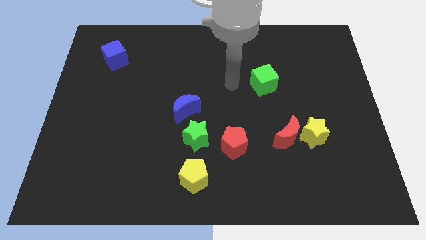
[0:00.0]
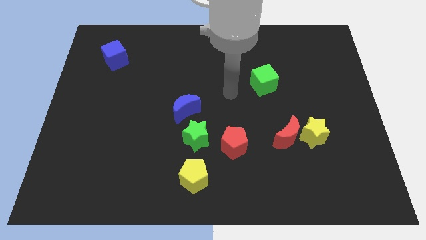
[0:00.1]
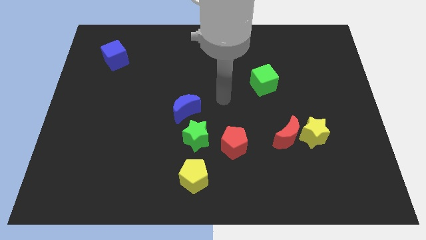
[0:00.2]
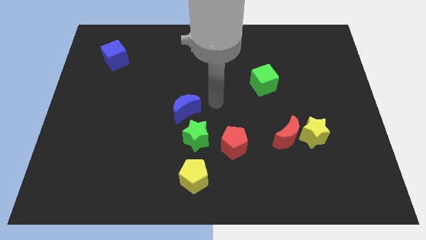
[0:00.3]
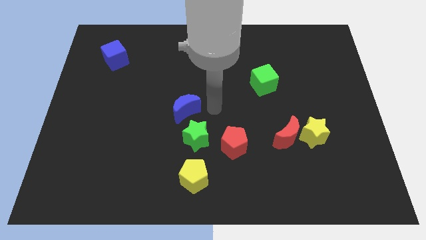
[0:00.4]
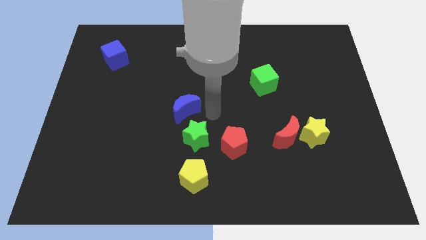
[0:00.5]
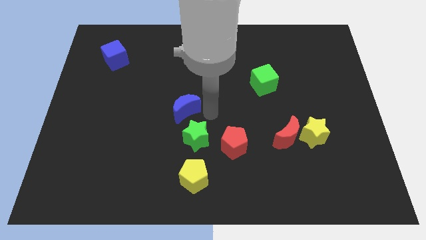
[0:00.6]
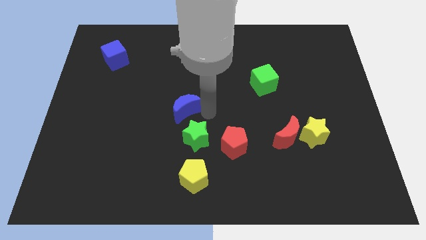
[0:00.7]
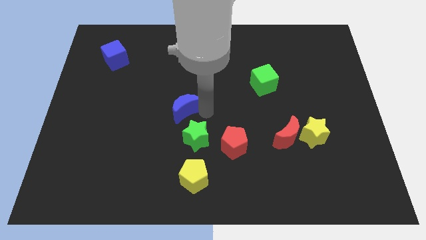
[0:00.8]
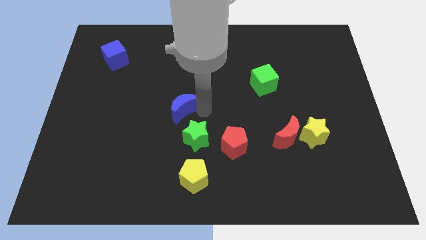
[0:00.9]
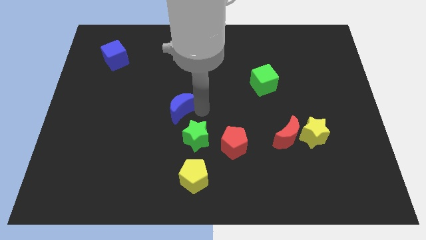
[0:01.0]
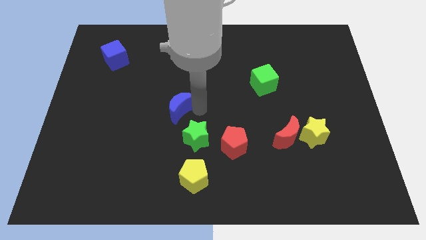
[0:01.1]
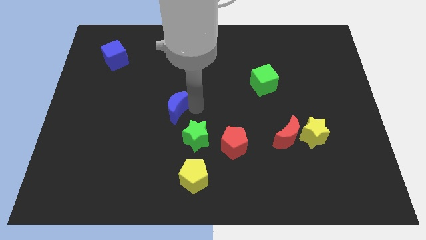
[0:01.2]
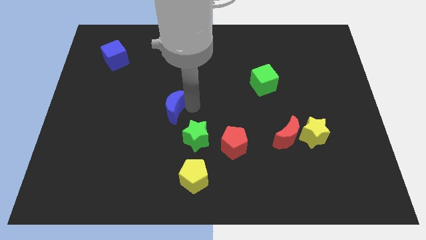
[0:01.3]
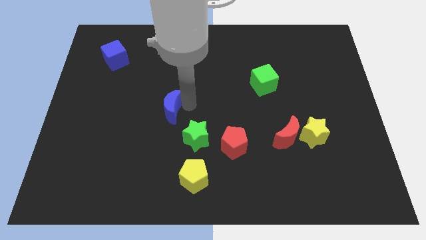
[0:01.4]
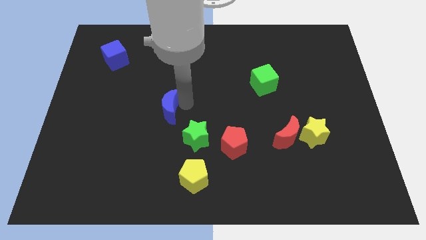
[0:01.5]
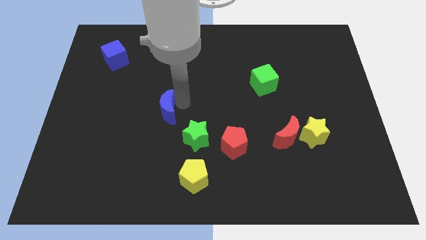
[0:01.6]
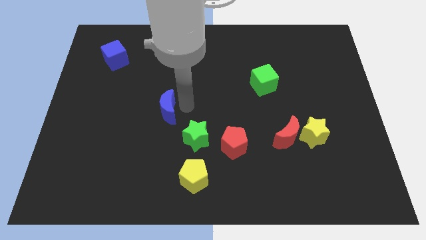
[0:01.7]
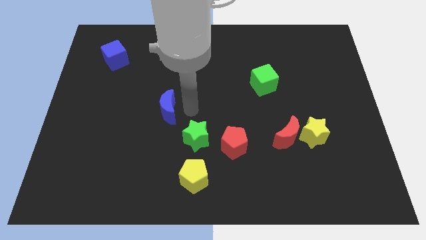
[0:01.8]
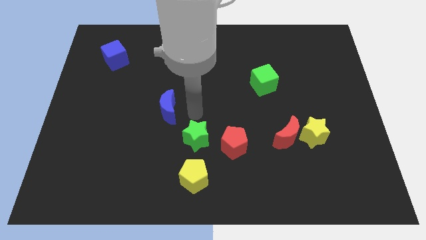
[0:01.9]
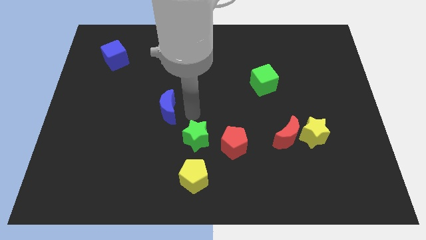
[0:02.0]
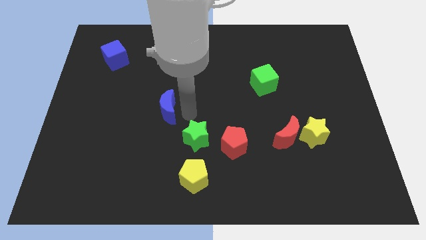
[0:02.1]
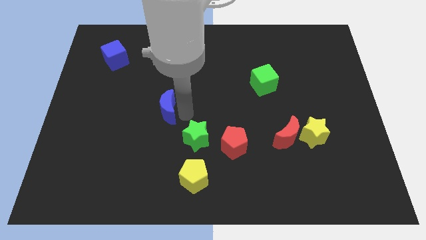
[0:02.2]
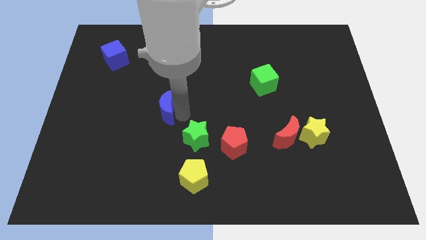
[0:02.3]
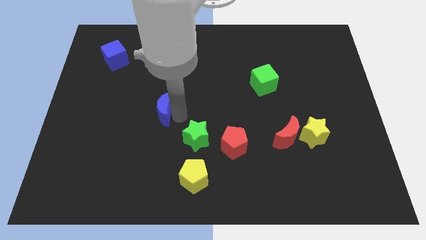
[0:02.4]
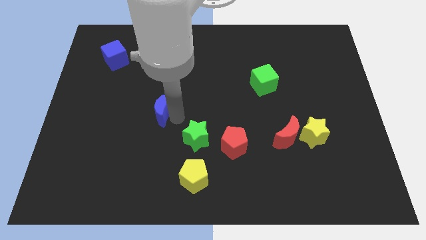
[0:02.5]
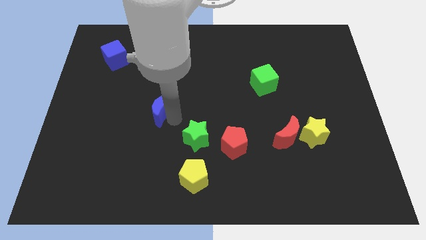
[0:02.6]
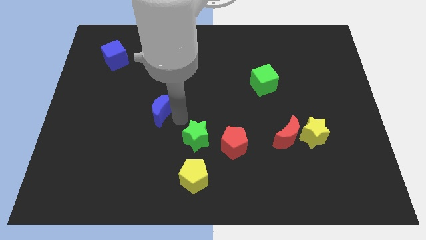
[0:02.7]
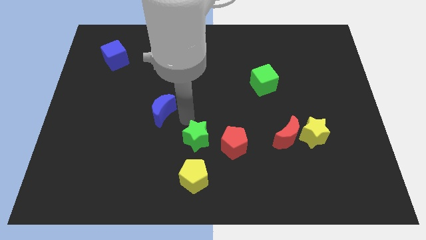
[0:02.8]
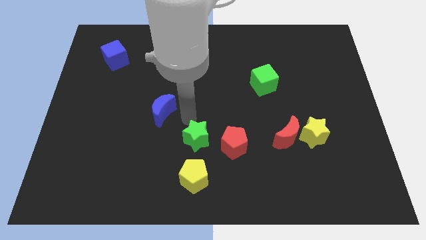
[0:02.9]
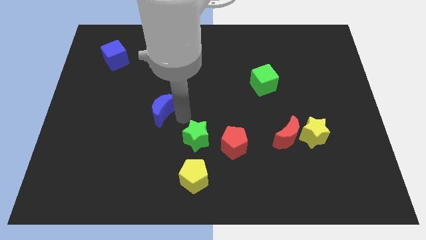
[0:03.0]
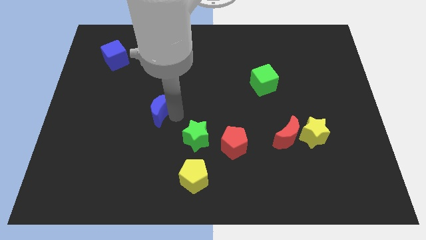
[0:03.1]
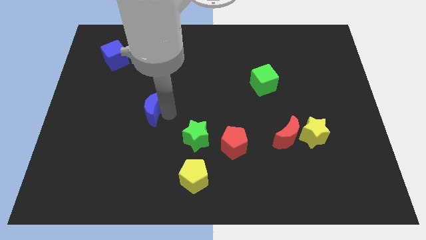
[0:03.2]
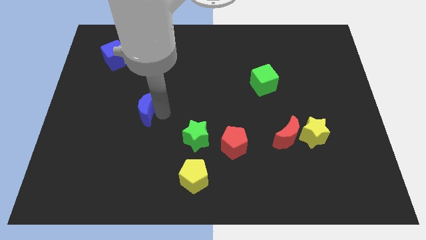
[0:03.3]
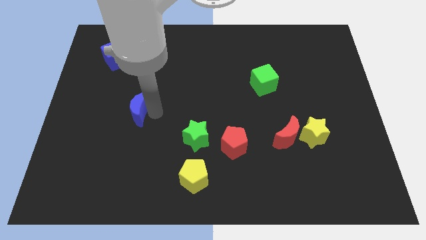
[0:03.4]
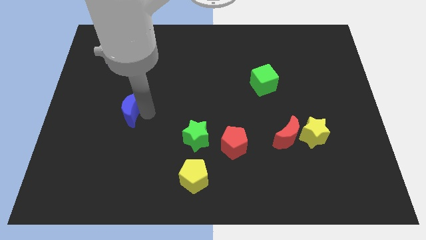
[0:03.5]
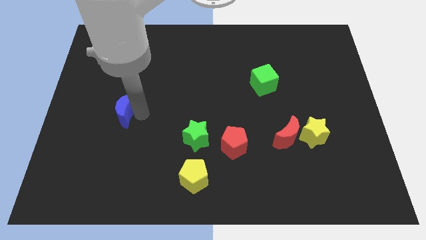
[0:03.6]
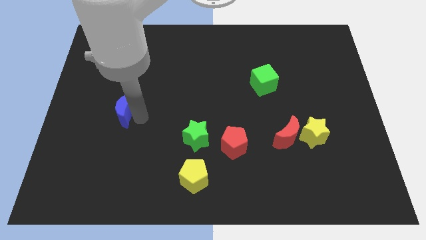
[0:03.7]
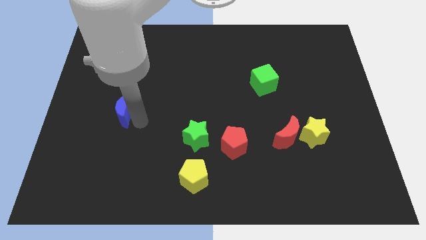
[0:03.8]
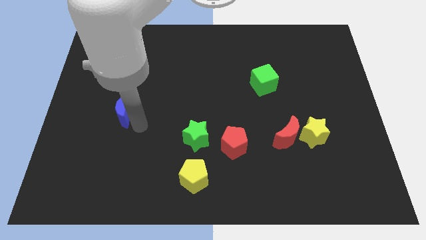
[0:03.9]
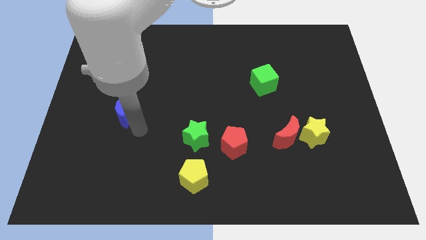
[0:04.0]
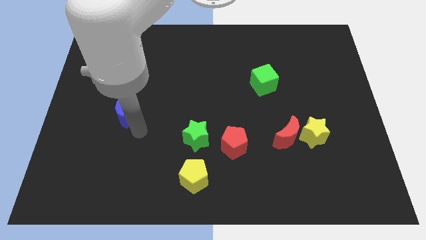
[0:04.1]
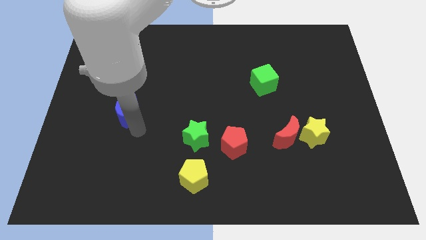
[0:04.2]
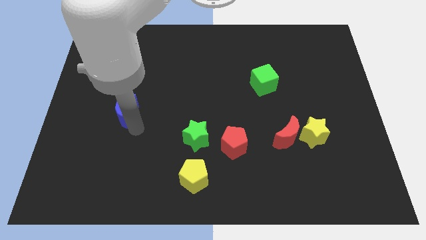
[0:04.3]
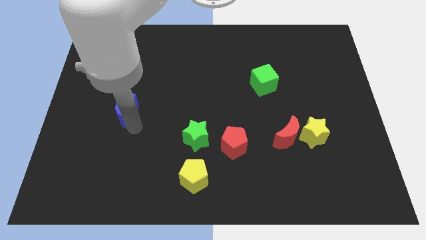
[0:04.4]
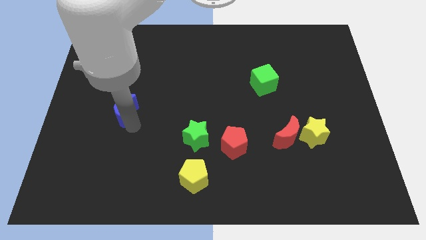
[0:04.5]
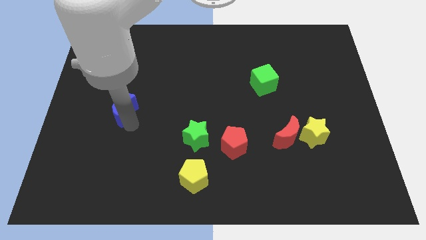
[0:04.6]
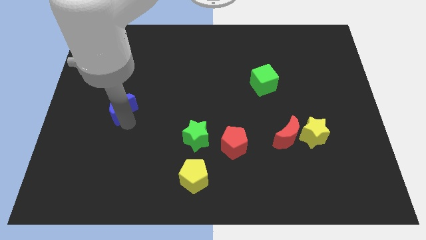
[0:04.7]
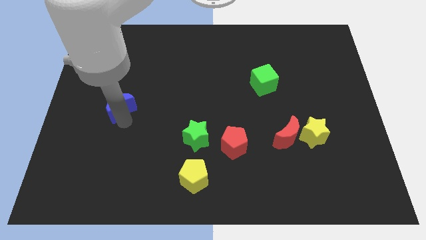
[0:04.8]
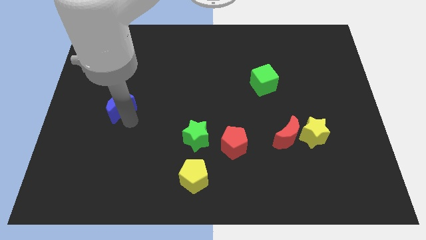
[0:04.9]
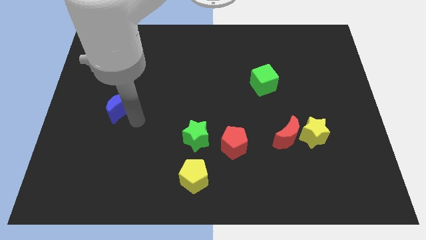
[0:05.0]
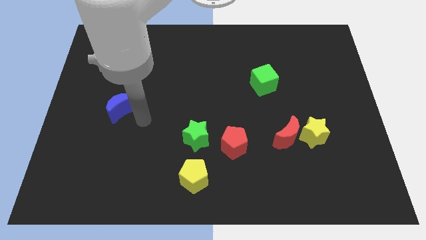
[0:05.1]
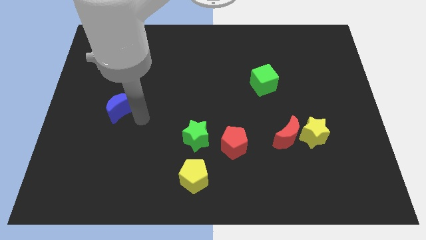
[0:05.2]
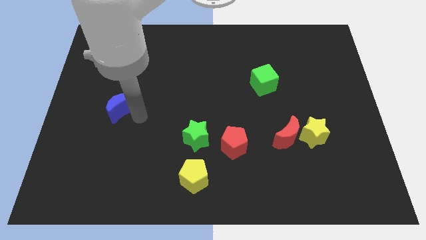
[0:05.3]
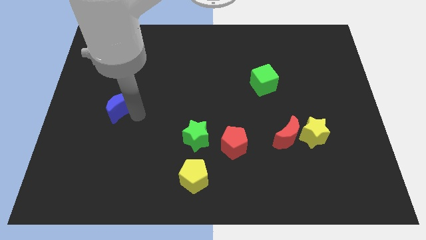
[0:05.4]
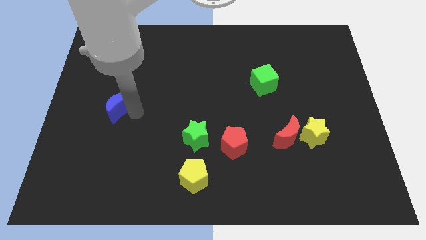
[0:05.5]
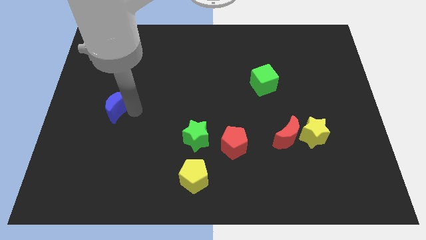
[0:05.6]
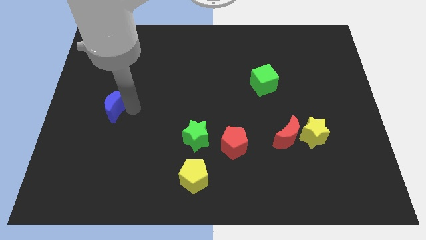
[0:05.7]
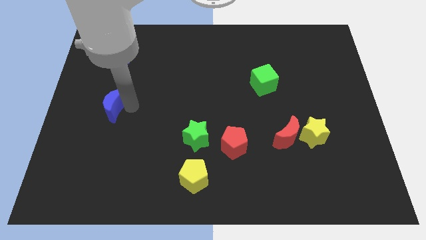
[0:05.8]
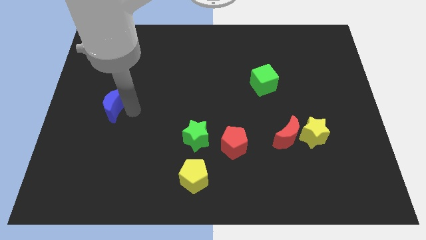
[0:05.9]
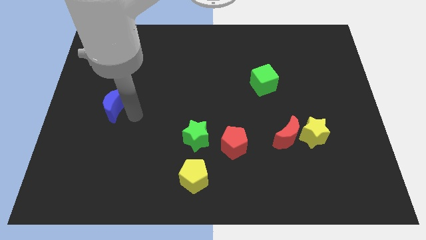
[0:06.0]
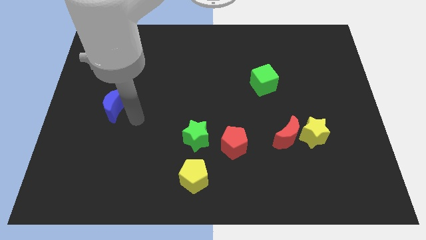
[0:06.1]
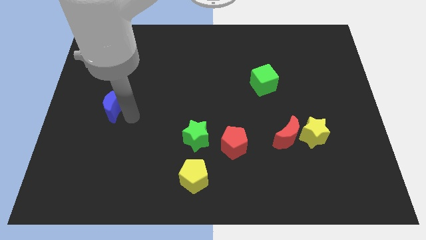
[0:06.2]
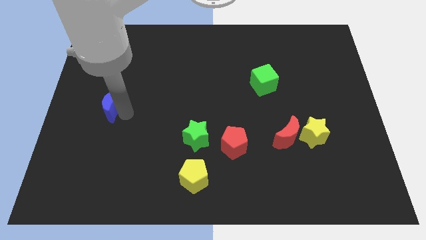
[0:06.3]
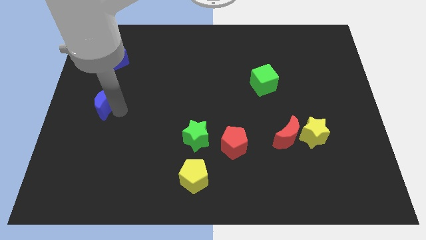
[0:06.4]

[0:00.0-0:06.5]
move the blue moon to the center left
